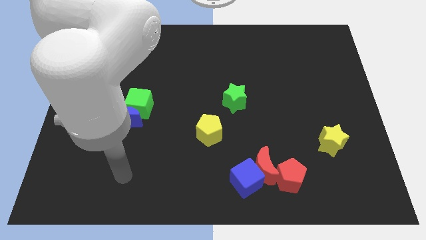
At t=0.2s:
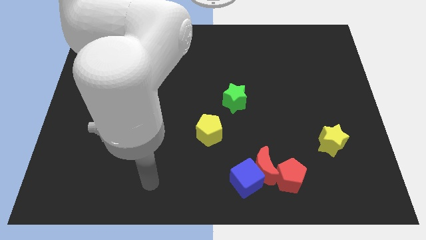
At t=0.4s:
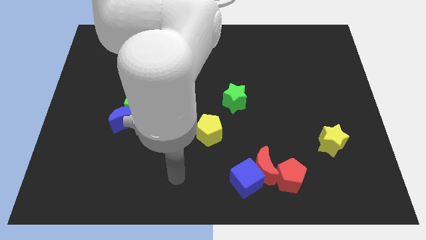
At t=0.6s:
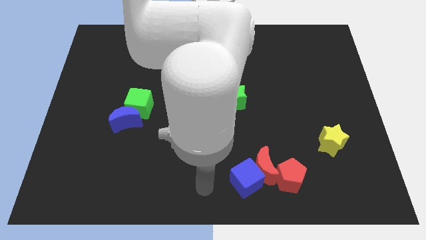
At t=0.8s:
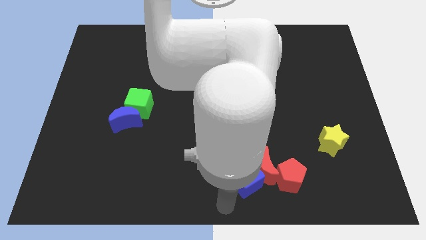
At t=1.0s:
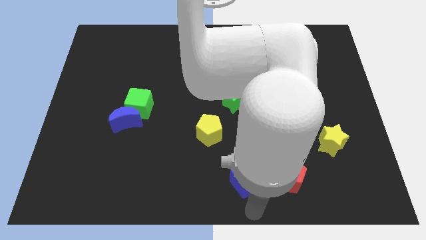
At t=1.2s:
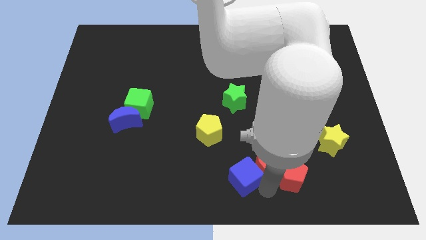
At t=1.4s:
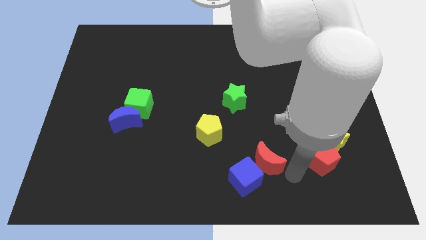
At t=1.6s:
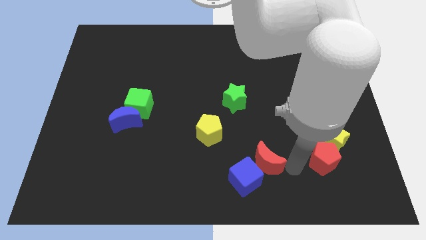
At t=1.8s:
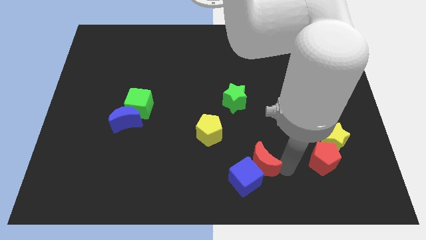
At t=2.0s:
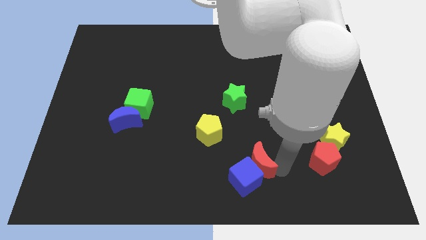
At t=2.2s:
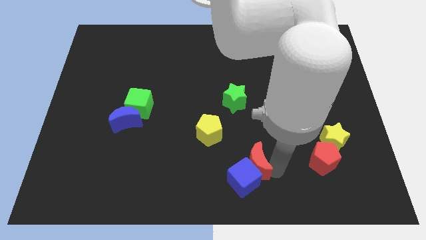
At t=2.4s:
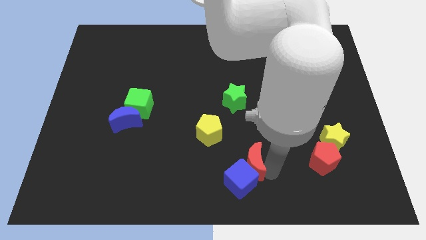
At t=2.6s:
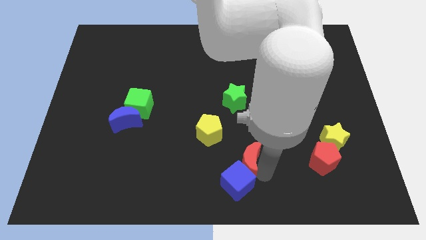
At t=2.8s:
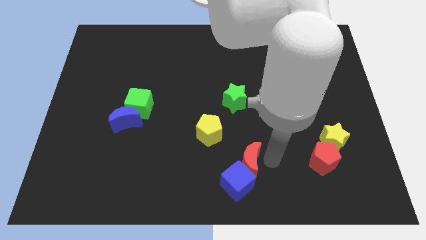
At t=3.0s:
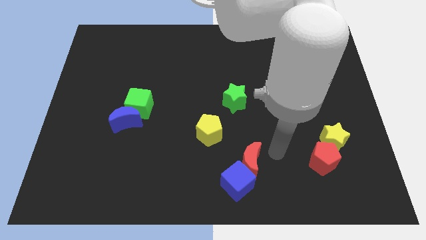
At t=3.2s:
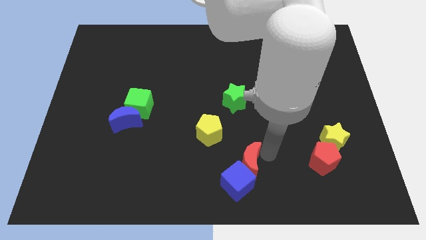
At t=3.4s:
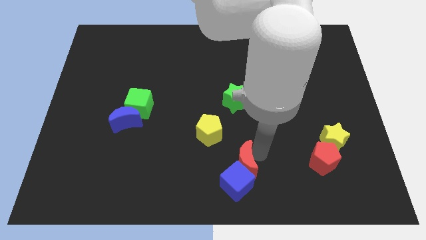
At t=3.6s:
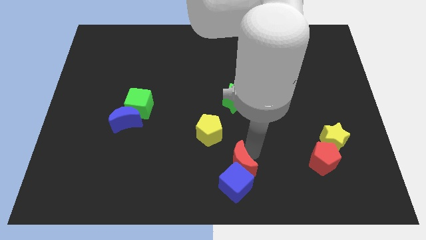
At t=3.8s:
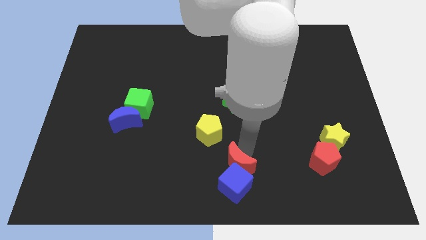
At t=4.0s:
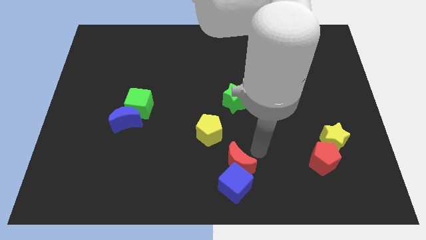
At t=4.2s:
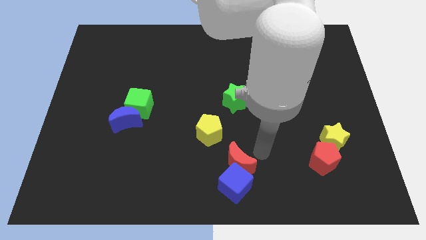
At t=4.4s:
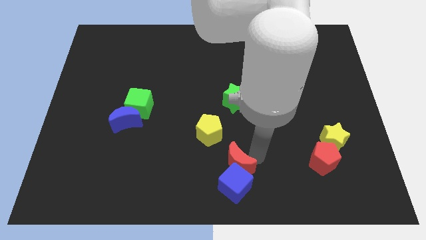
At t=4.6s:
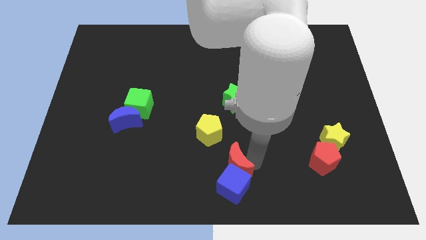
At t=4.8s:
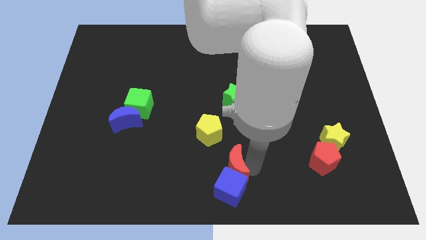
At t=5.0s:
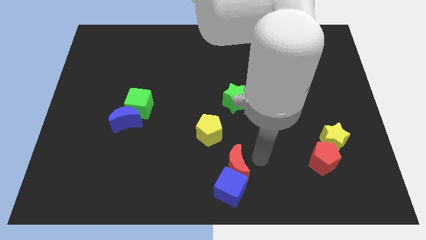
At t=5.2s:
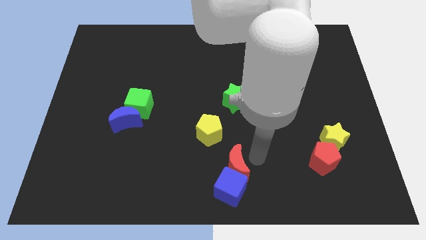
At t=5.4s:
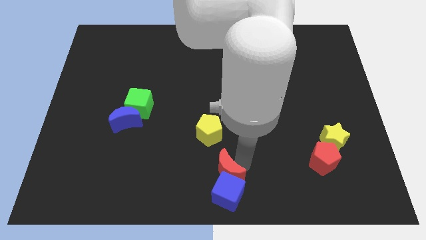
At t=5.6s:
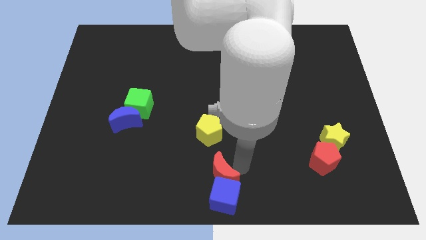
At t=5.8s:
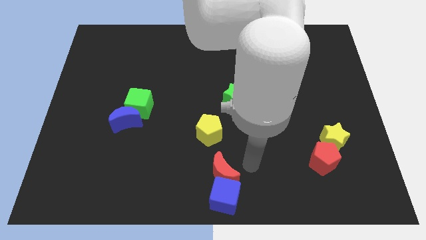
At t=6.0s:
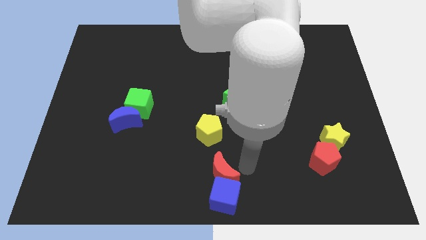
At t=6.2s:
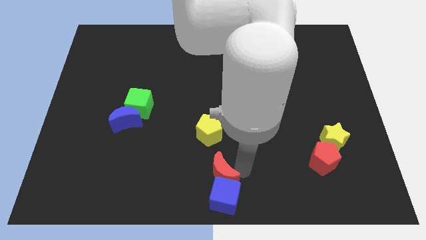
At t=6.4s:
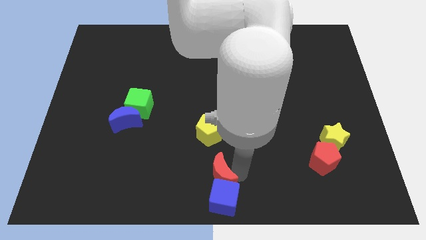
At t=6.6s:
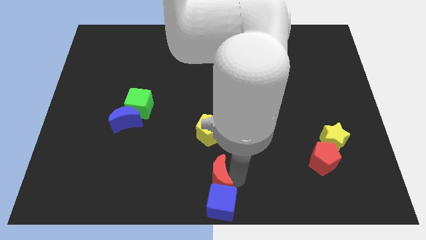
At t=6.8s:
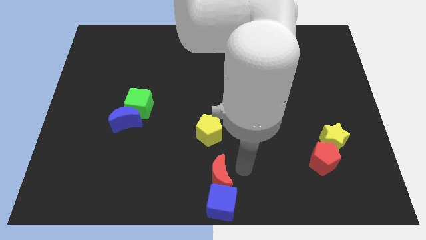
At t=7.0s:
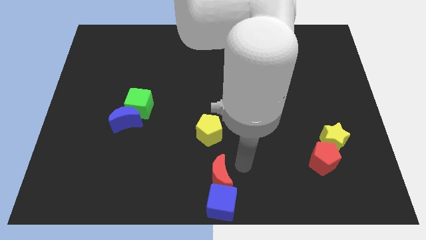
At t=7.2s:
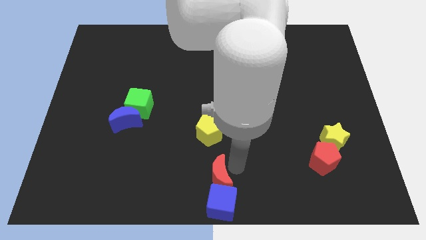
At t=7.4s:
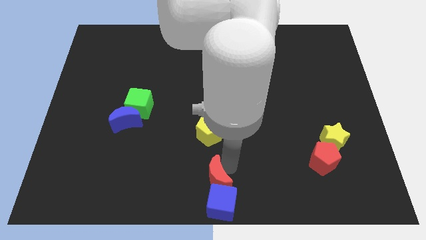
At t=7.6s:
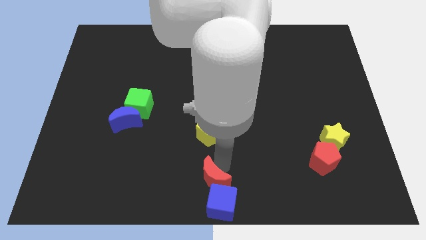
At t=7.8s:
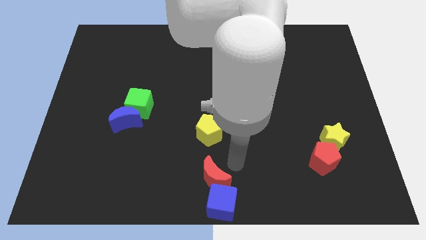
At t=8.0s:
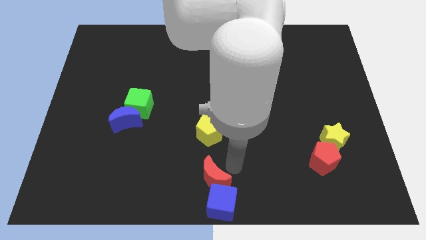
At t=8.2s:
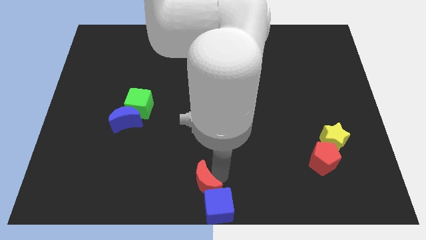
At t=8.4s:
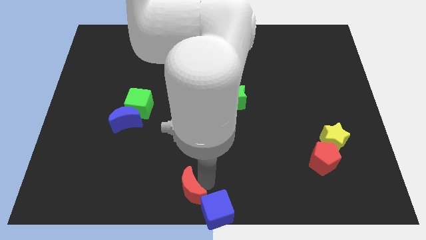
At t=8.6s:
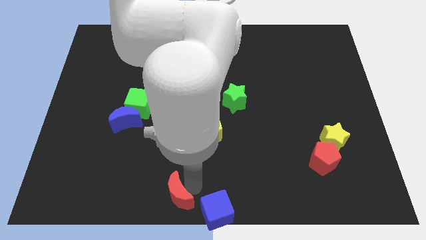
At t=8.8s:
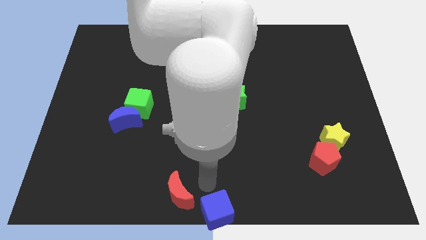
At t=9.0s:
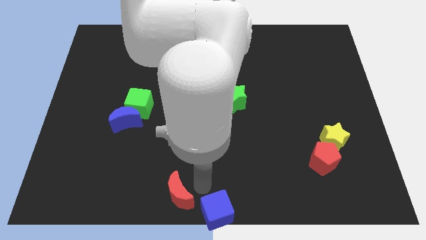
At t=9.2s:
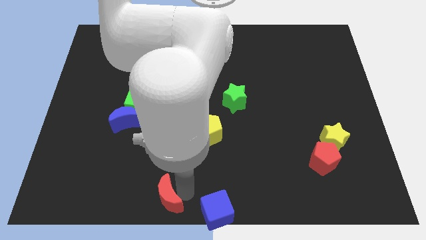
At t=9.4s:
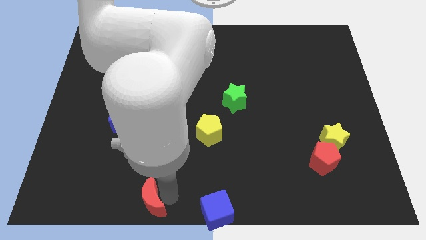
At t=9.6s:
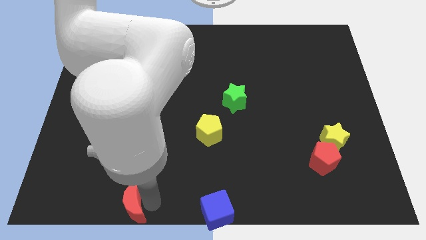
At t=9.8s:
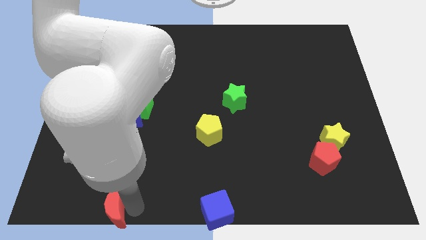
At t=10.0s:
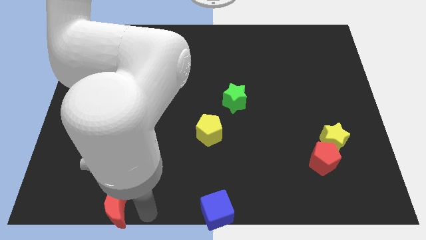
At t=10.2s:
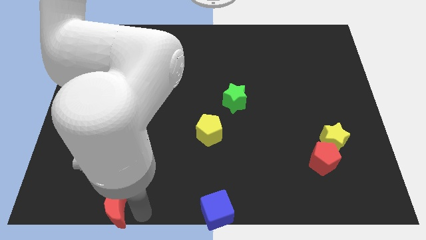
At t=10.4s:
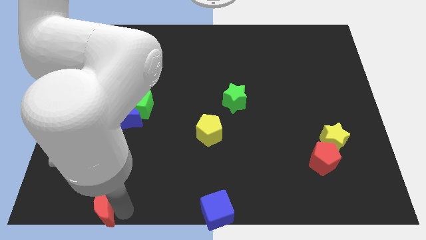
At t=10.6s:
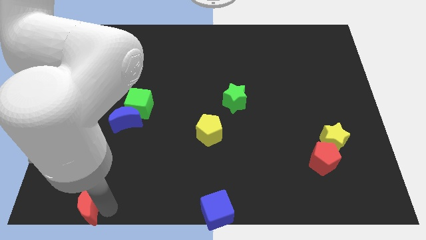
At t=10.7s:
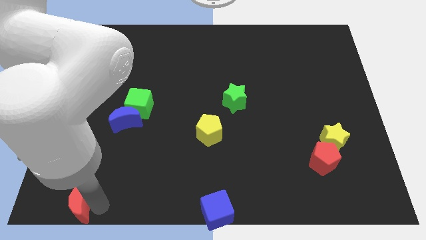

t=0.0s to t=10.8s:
move the red moon to the bottom left of the board

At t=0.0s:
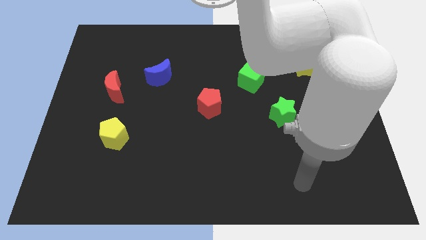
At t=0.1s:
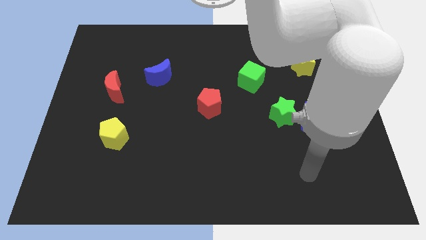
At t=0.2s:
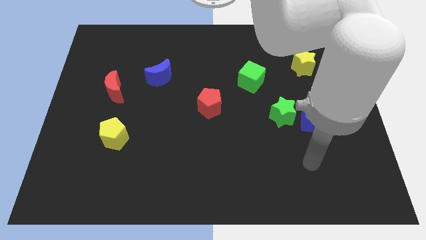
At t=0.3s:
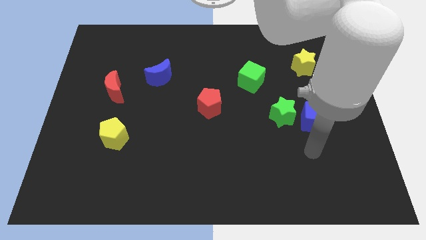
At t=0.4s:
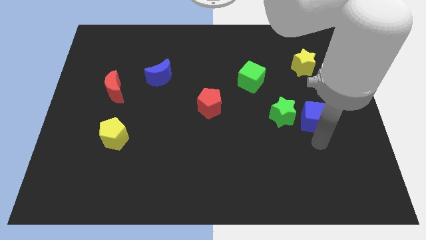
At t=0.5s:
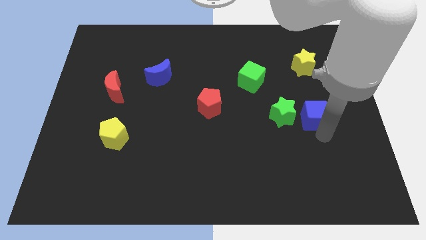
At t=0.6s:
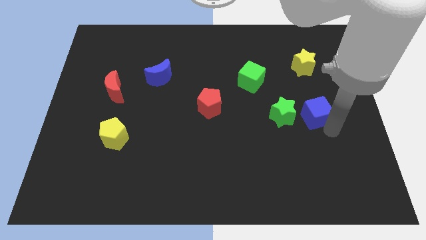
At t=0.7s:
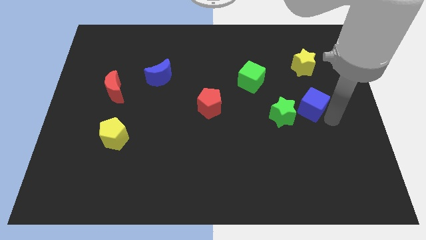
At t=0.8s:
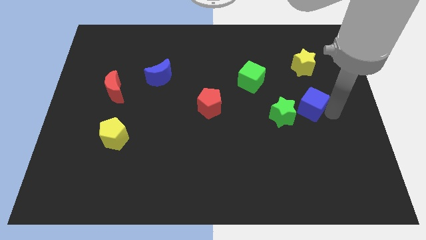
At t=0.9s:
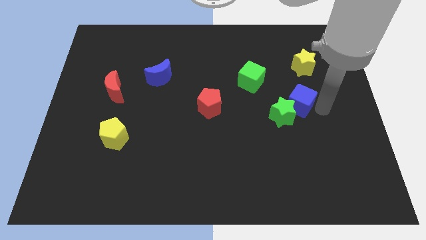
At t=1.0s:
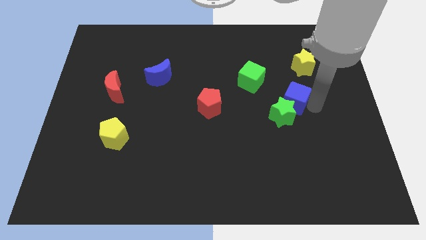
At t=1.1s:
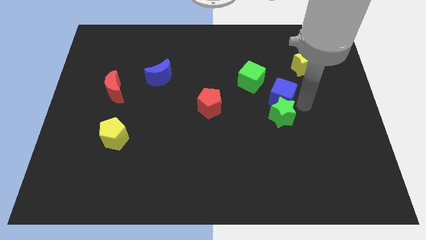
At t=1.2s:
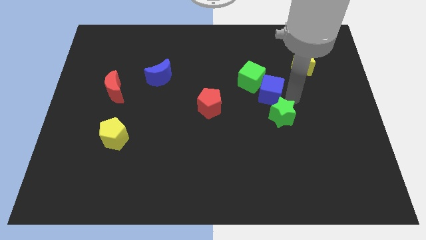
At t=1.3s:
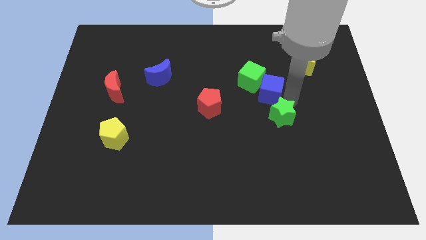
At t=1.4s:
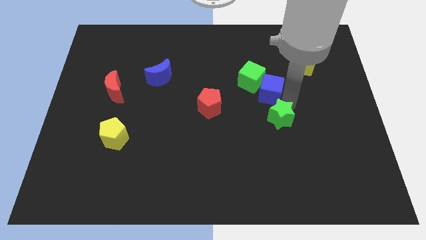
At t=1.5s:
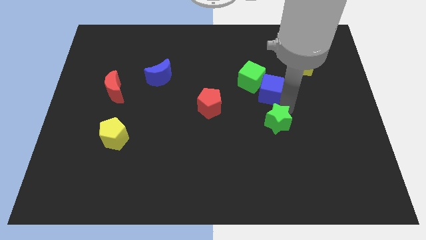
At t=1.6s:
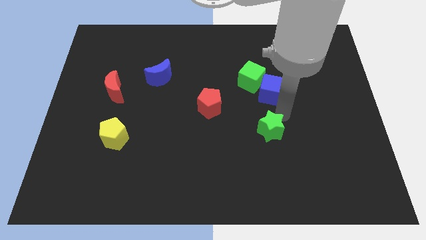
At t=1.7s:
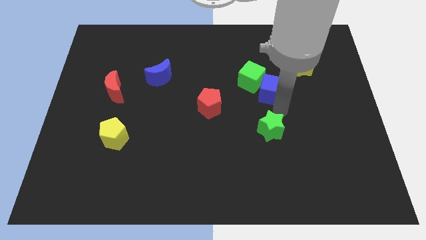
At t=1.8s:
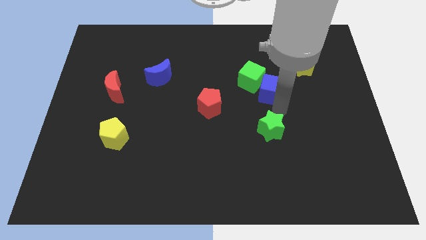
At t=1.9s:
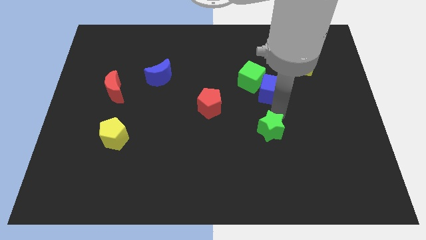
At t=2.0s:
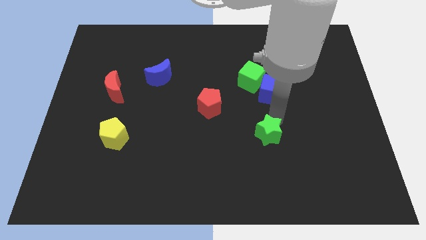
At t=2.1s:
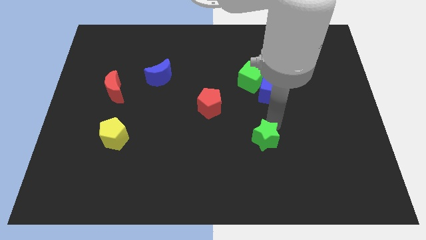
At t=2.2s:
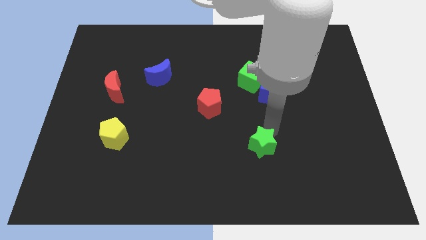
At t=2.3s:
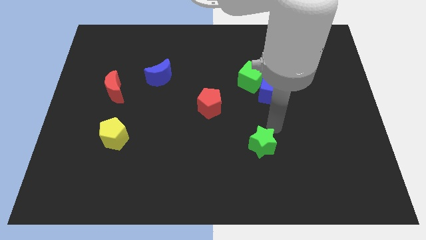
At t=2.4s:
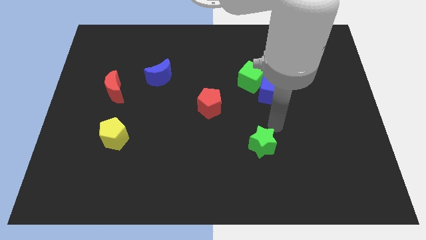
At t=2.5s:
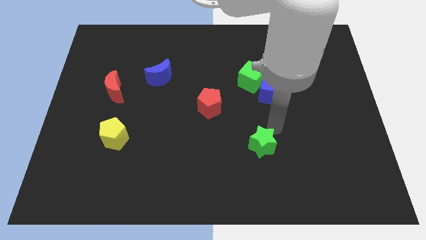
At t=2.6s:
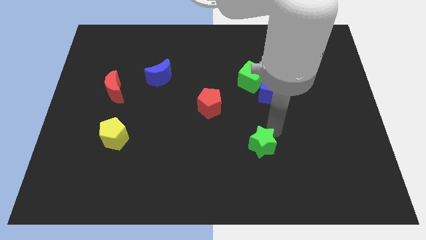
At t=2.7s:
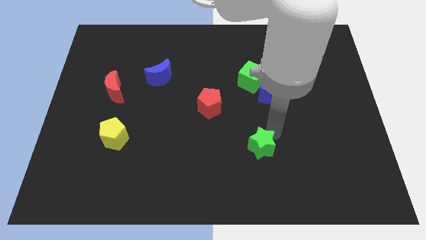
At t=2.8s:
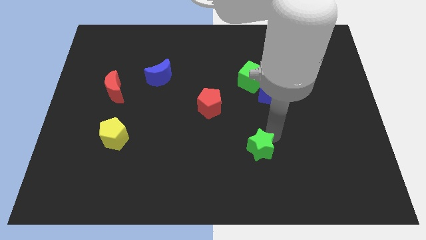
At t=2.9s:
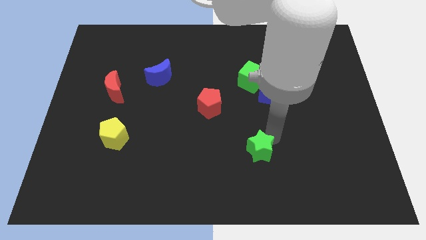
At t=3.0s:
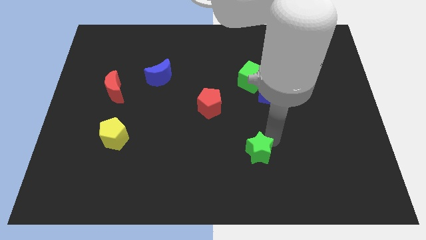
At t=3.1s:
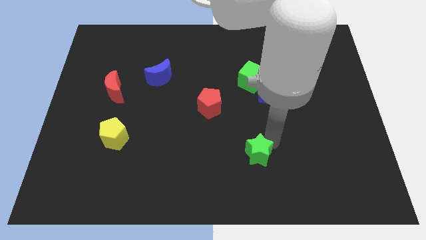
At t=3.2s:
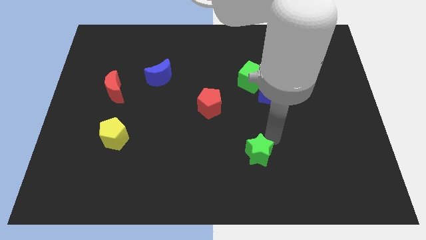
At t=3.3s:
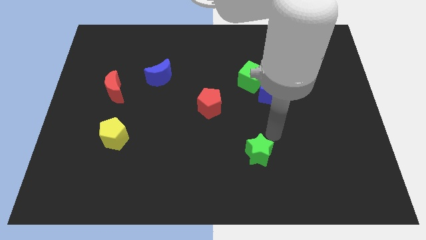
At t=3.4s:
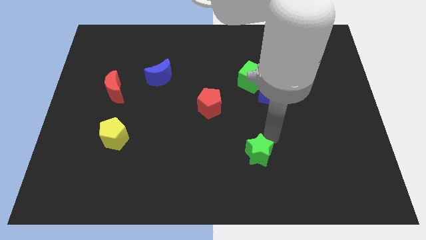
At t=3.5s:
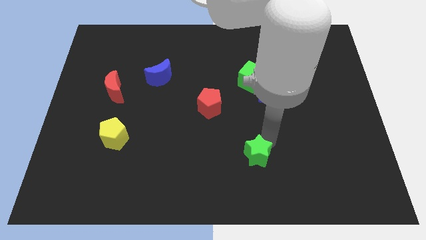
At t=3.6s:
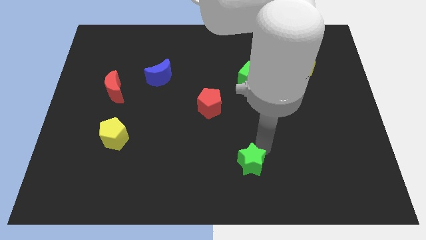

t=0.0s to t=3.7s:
put the green star to the bottom side
